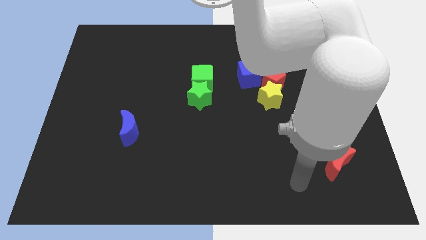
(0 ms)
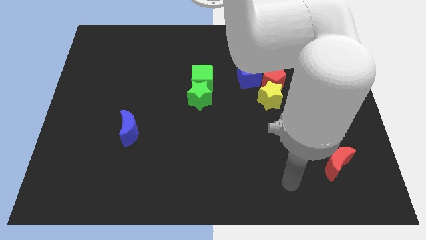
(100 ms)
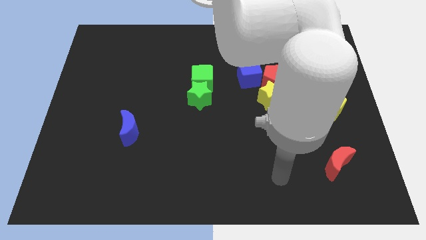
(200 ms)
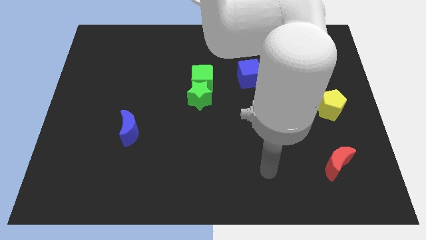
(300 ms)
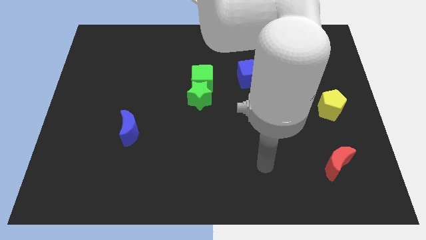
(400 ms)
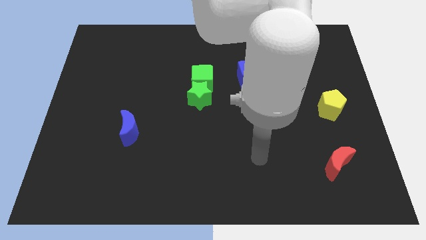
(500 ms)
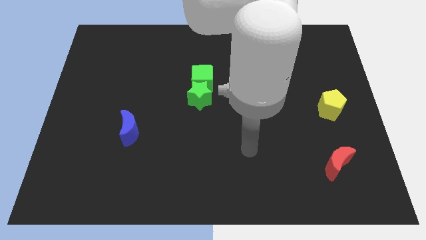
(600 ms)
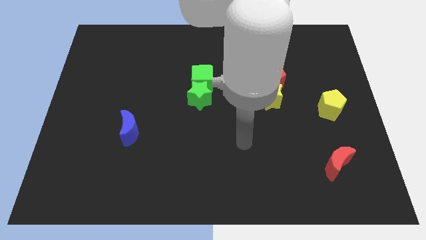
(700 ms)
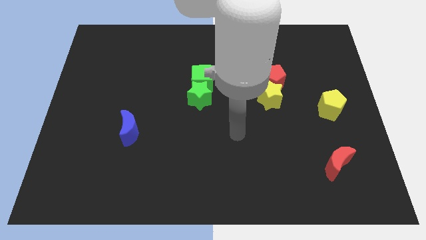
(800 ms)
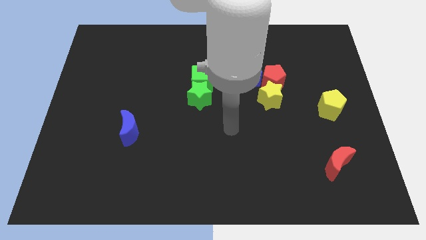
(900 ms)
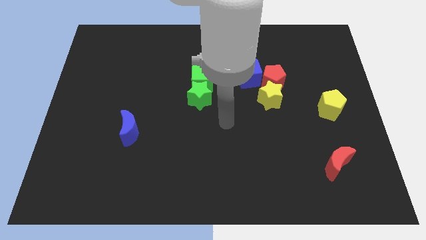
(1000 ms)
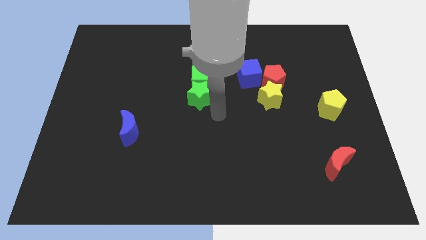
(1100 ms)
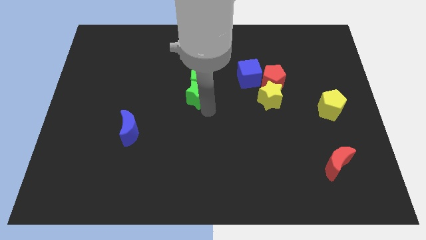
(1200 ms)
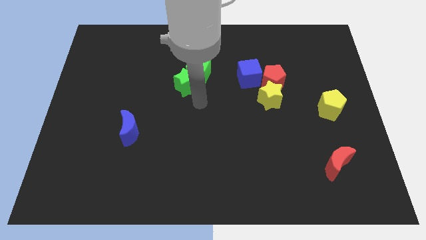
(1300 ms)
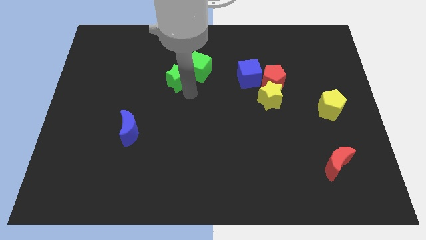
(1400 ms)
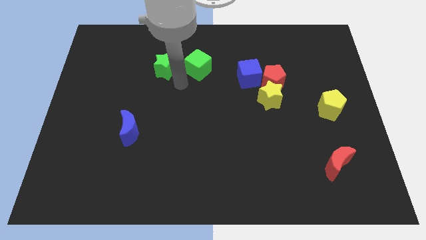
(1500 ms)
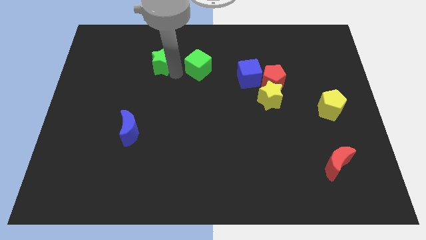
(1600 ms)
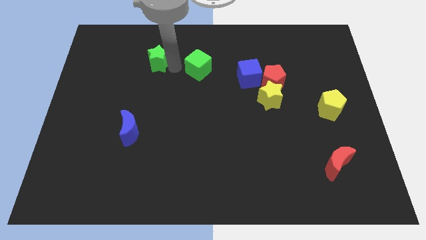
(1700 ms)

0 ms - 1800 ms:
pull the green cube apart from the green star

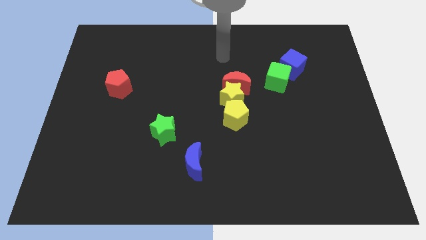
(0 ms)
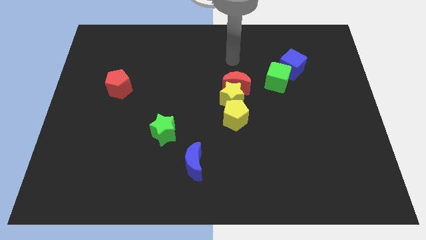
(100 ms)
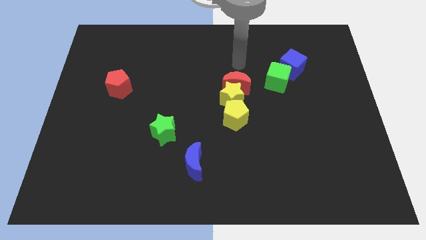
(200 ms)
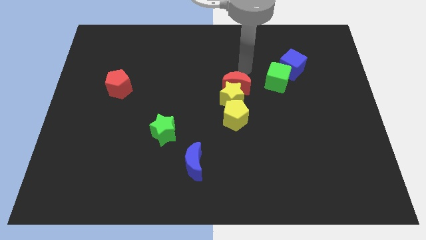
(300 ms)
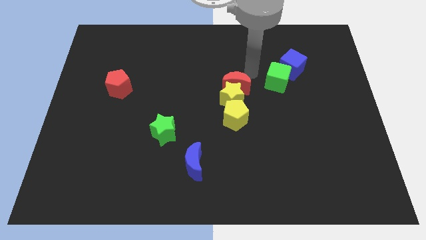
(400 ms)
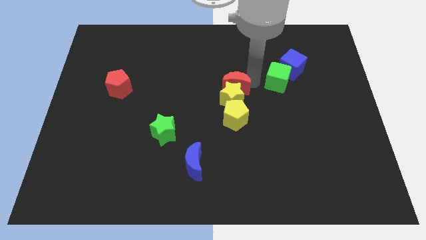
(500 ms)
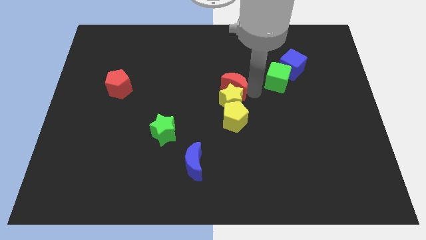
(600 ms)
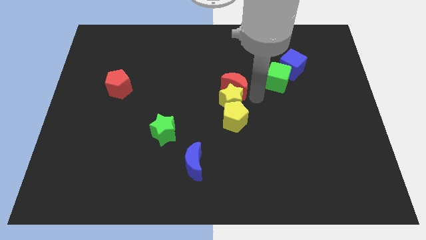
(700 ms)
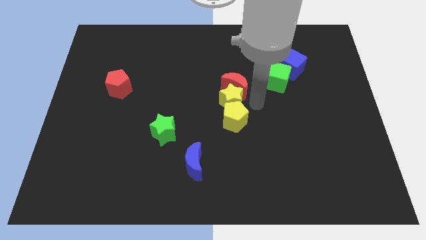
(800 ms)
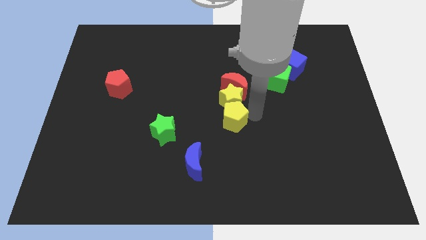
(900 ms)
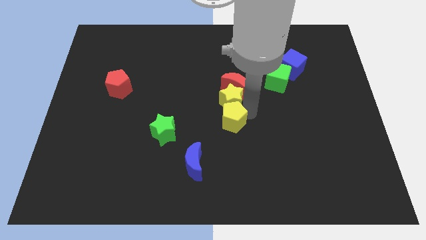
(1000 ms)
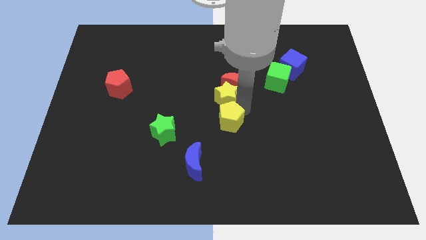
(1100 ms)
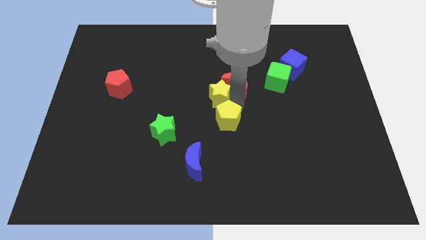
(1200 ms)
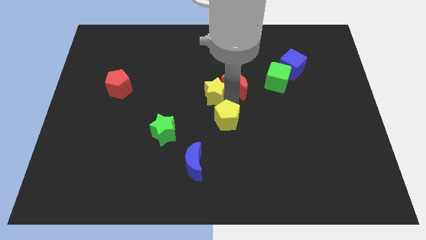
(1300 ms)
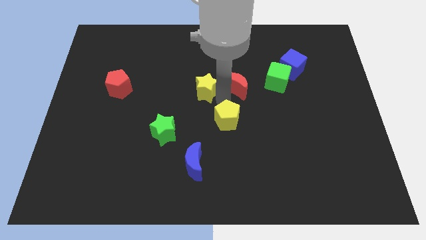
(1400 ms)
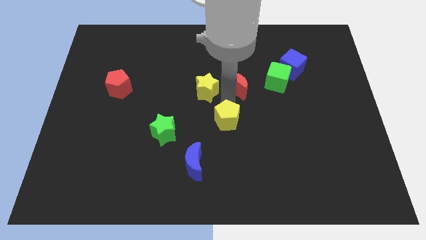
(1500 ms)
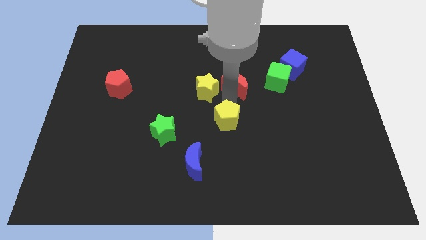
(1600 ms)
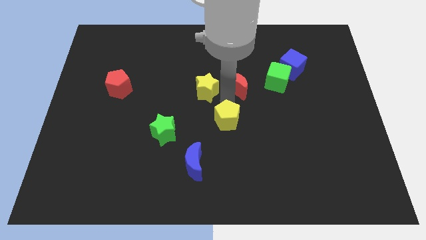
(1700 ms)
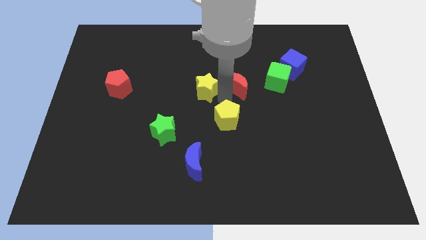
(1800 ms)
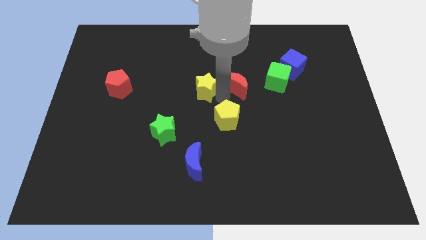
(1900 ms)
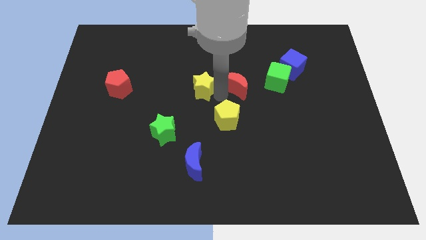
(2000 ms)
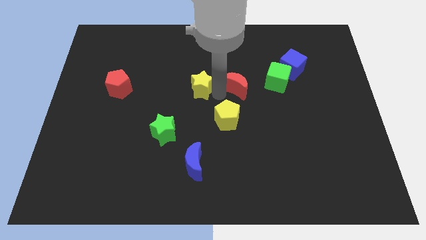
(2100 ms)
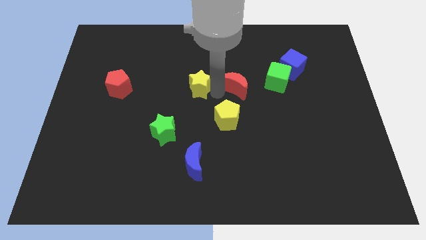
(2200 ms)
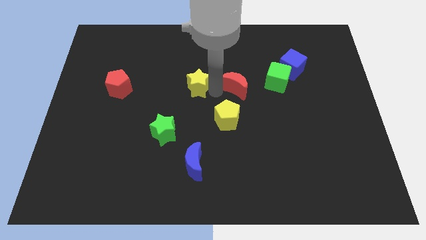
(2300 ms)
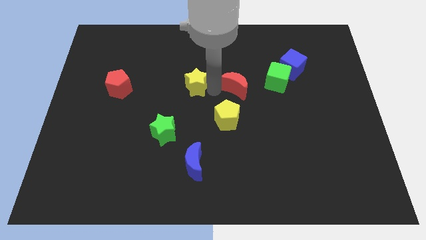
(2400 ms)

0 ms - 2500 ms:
pull the yellow star apart from the red moon and yellow pentagon

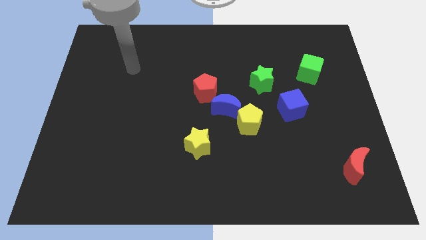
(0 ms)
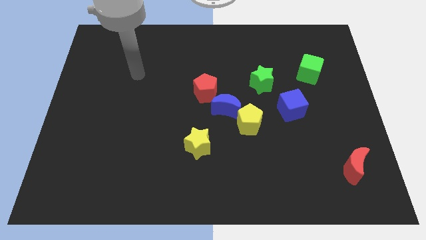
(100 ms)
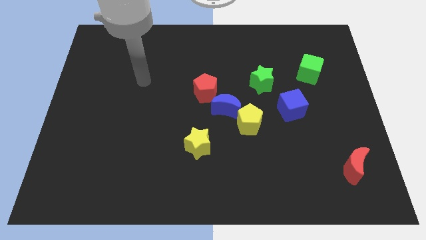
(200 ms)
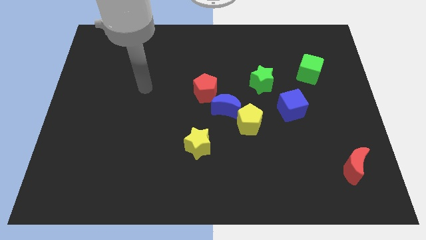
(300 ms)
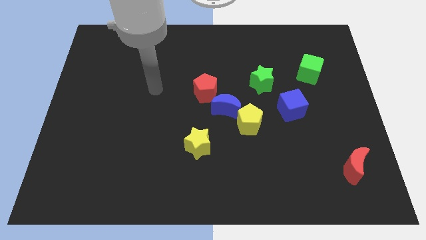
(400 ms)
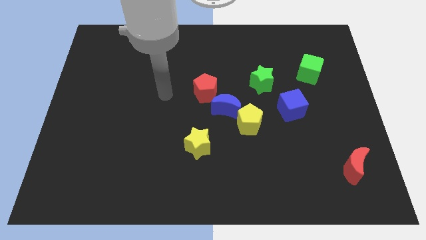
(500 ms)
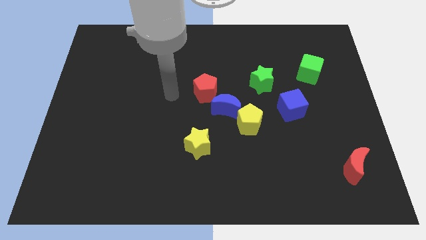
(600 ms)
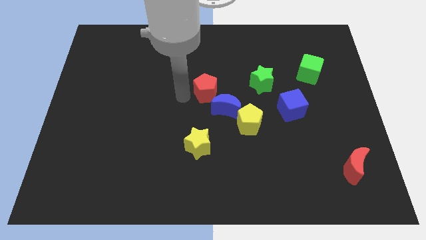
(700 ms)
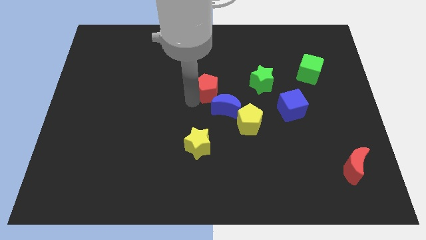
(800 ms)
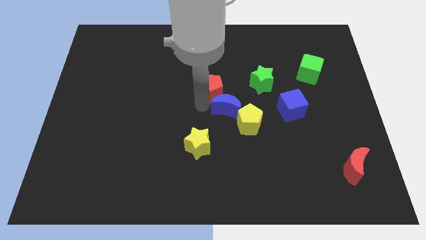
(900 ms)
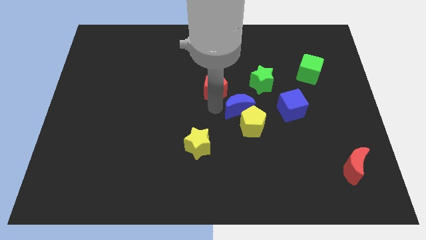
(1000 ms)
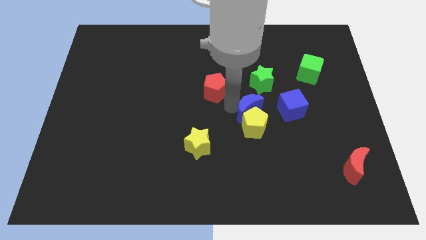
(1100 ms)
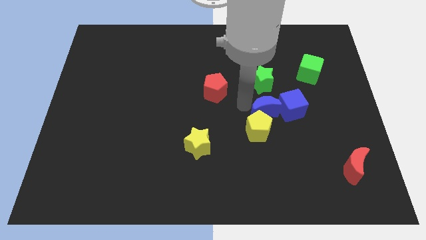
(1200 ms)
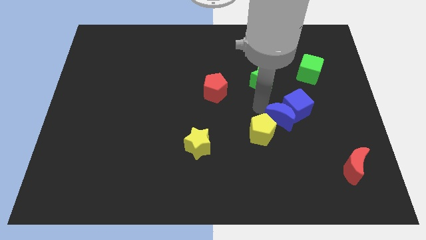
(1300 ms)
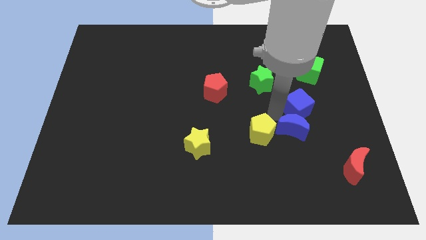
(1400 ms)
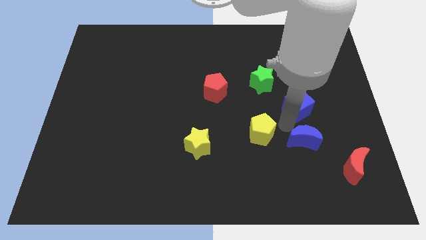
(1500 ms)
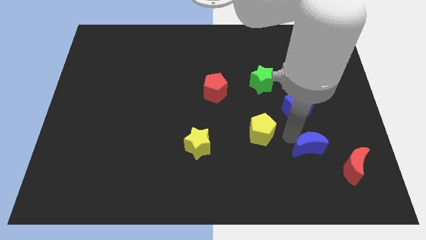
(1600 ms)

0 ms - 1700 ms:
separate the yellow pentagon from the blue moon

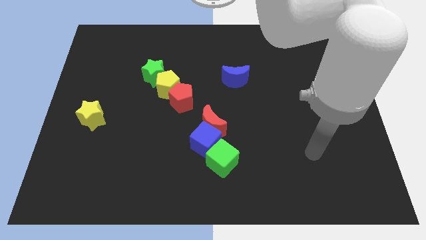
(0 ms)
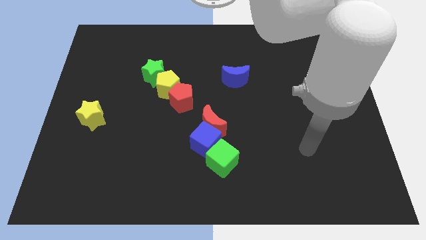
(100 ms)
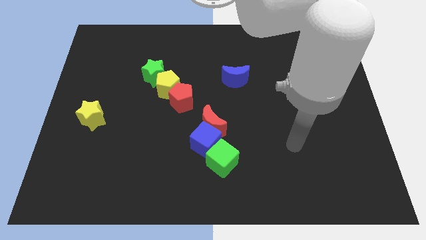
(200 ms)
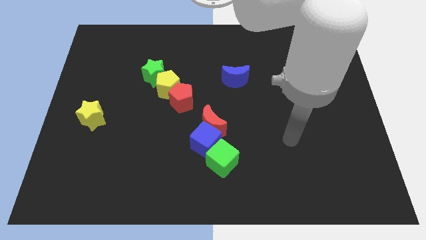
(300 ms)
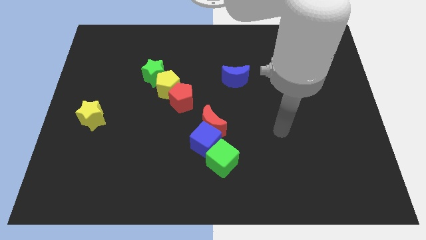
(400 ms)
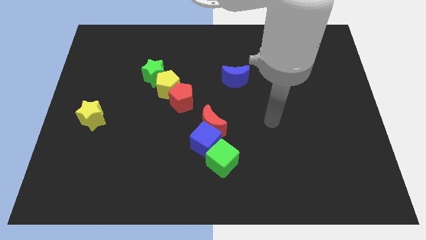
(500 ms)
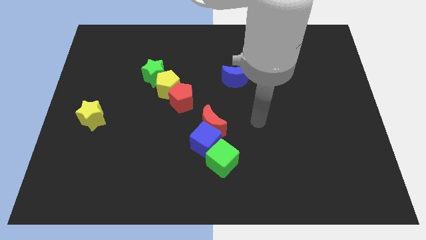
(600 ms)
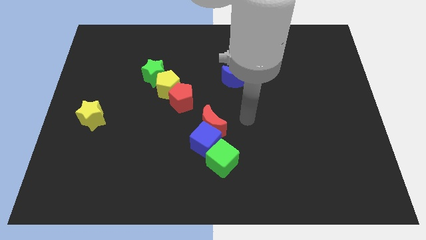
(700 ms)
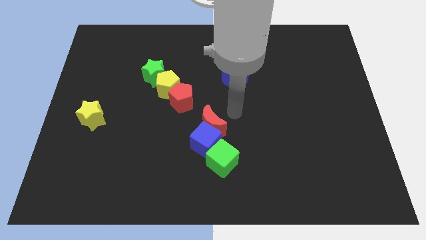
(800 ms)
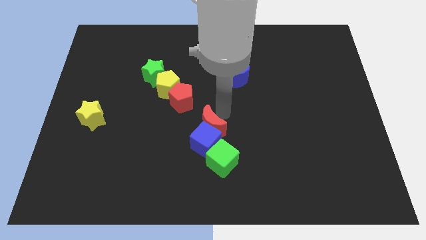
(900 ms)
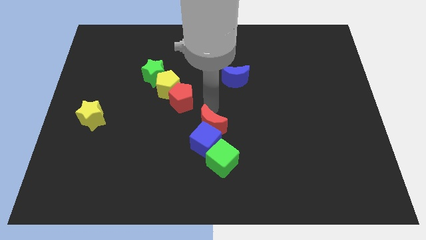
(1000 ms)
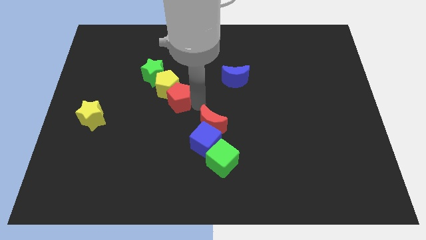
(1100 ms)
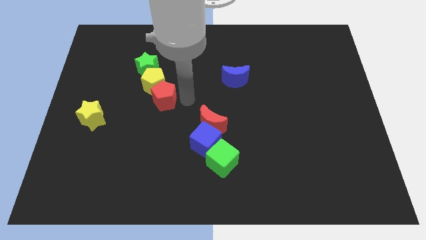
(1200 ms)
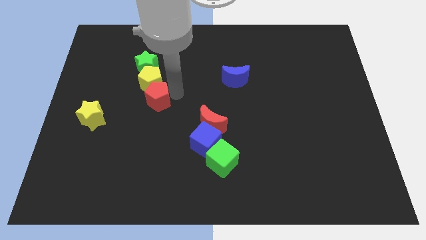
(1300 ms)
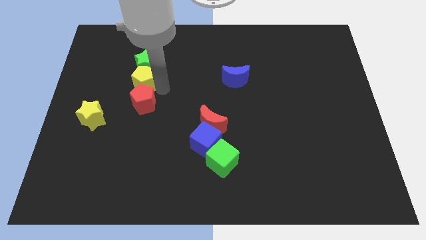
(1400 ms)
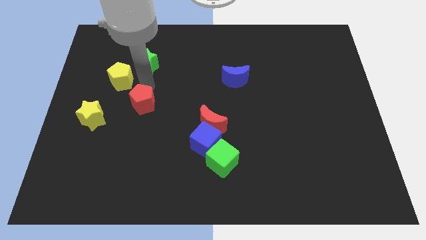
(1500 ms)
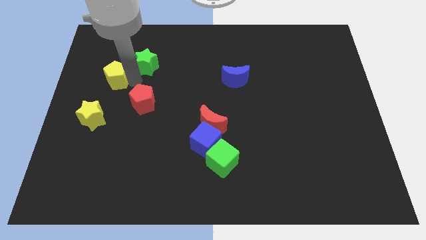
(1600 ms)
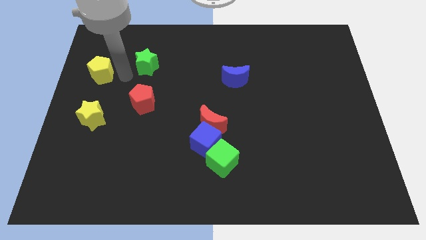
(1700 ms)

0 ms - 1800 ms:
pull the green star apart from the yellow pentagon

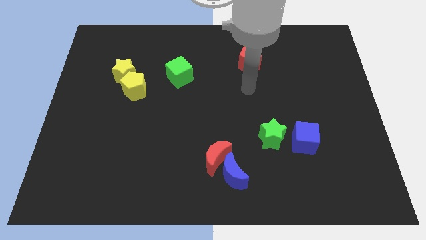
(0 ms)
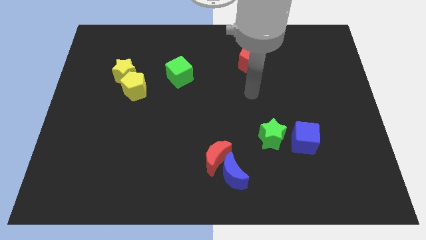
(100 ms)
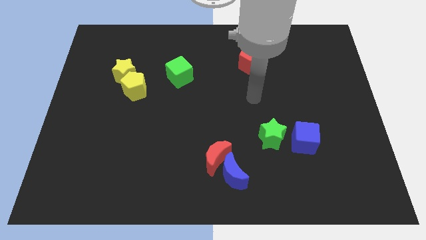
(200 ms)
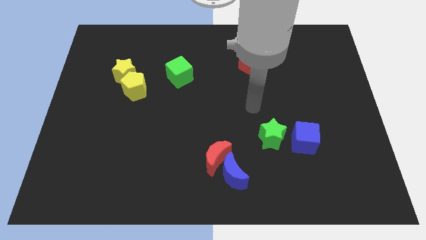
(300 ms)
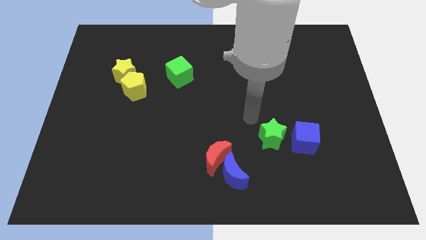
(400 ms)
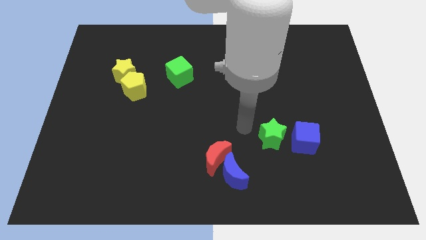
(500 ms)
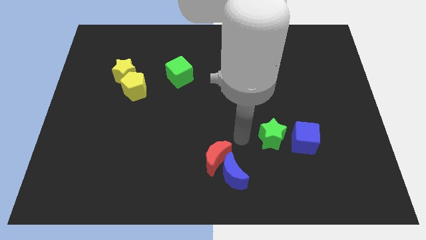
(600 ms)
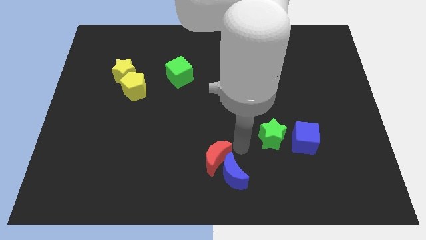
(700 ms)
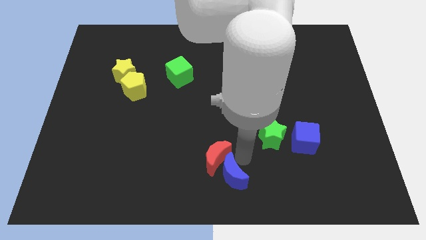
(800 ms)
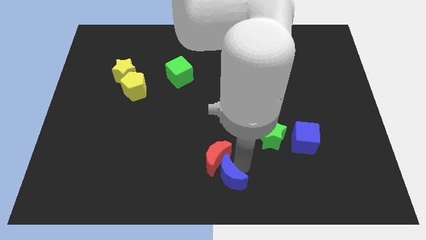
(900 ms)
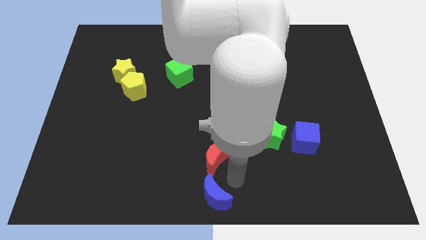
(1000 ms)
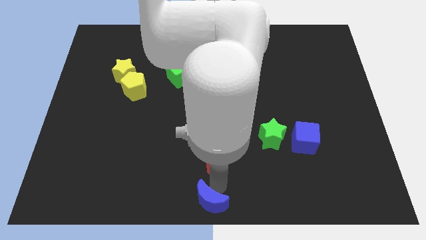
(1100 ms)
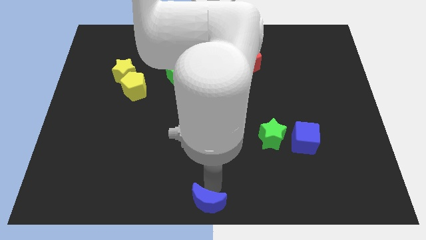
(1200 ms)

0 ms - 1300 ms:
pull the red moon apart from the blue moon

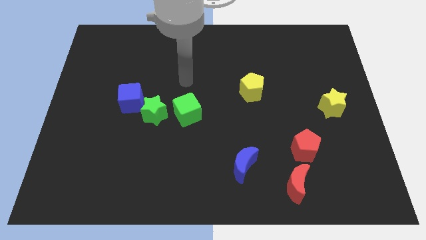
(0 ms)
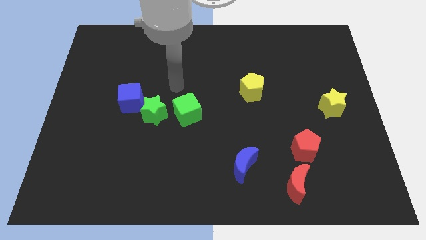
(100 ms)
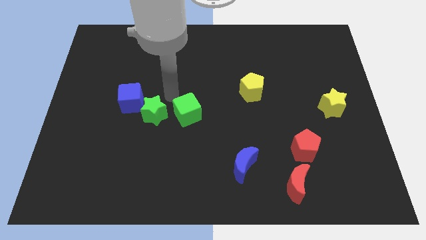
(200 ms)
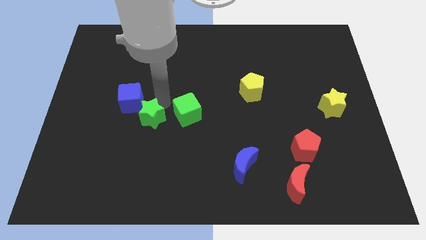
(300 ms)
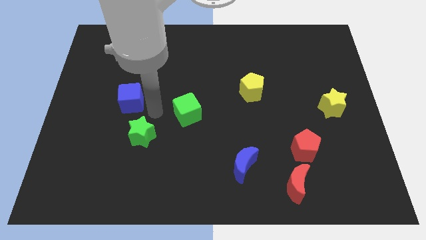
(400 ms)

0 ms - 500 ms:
pull the blue cube apart from the green star
